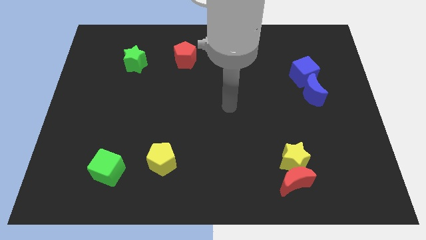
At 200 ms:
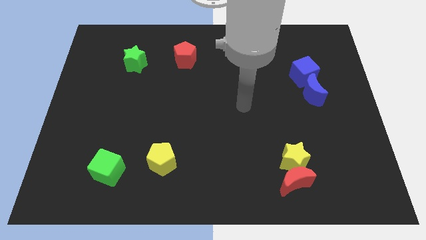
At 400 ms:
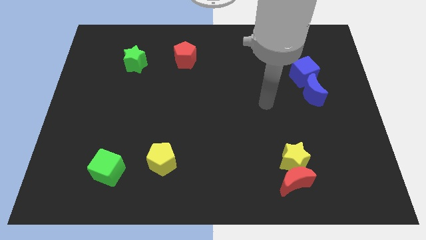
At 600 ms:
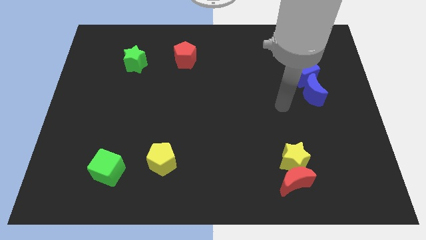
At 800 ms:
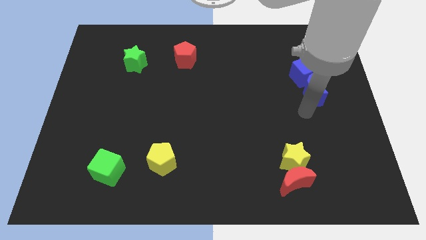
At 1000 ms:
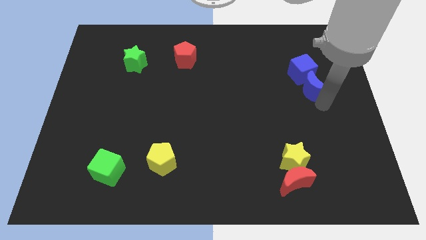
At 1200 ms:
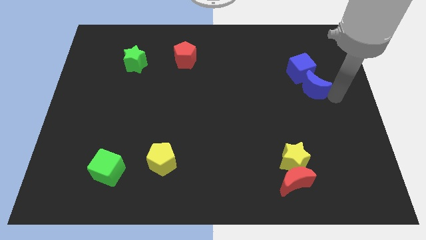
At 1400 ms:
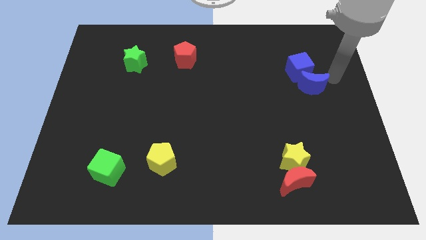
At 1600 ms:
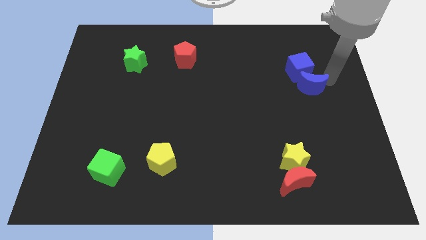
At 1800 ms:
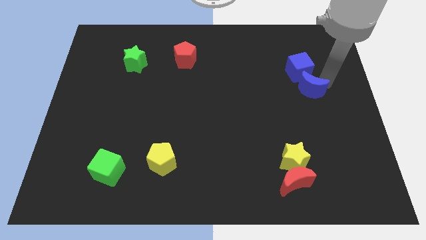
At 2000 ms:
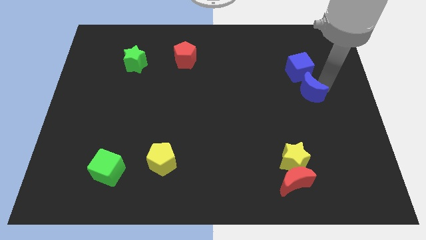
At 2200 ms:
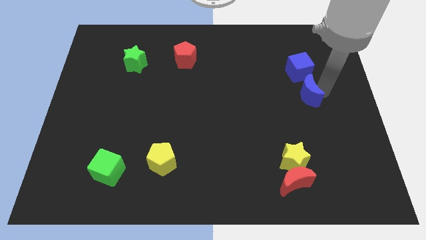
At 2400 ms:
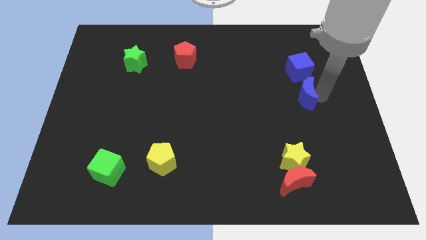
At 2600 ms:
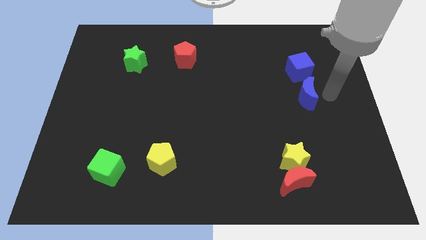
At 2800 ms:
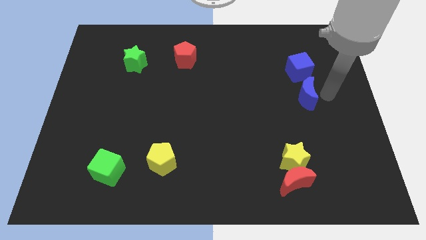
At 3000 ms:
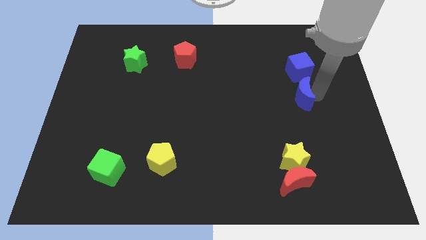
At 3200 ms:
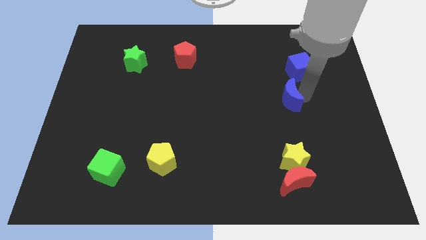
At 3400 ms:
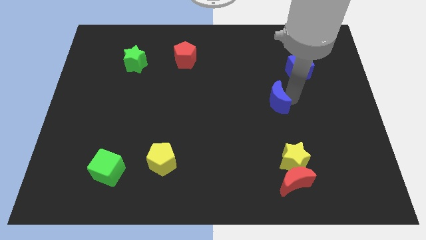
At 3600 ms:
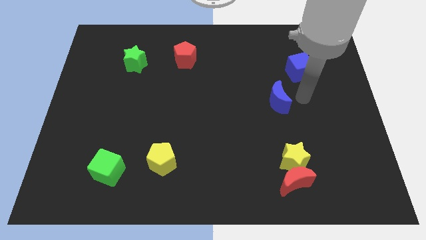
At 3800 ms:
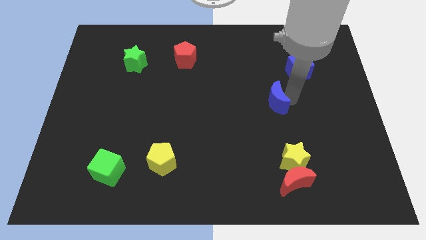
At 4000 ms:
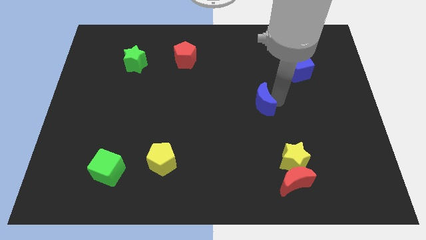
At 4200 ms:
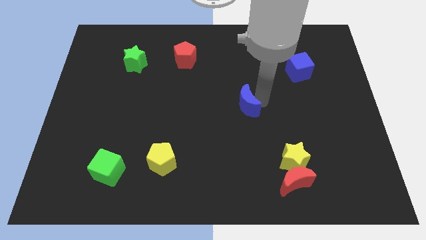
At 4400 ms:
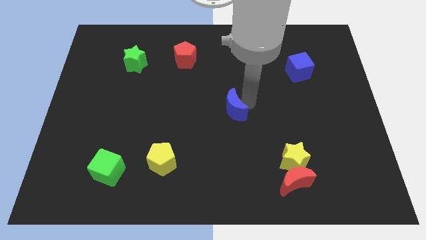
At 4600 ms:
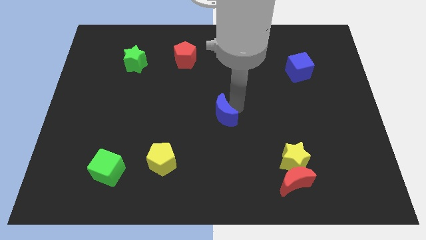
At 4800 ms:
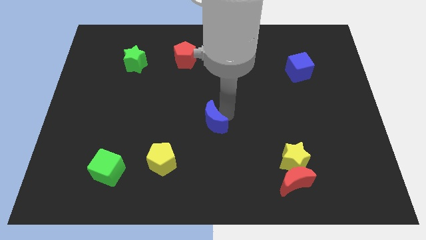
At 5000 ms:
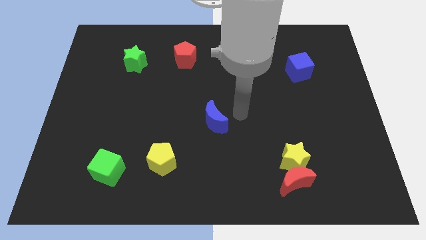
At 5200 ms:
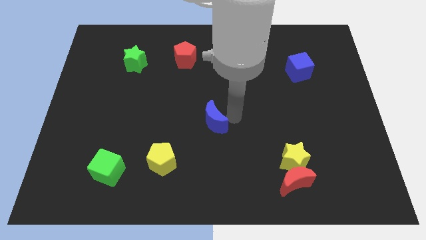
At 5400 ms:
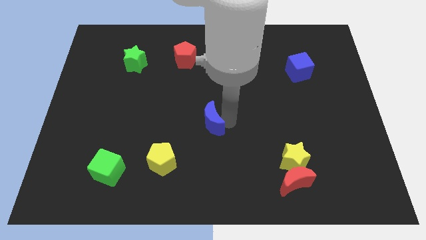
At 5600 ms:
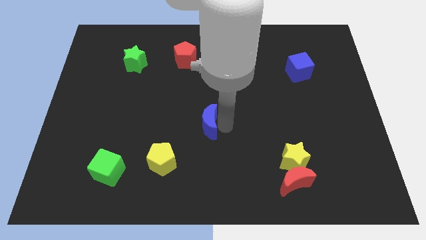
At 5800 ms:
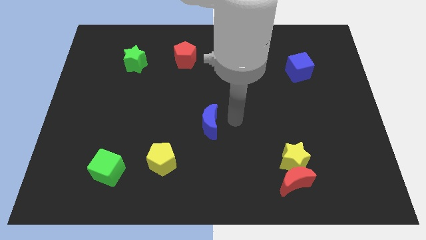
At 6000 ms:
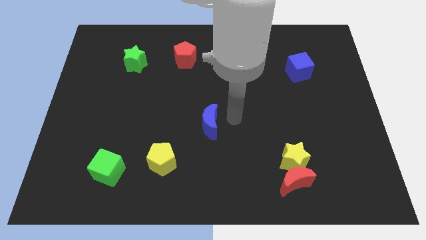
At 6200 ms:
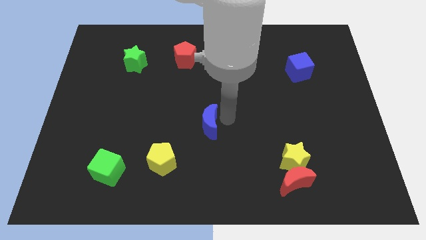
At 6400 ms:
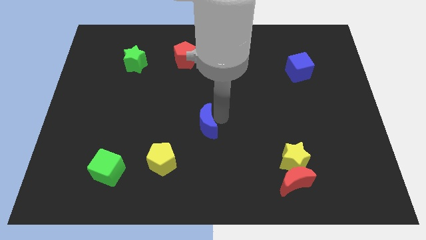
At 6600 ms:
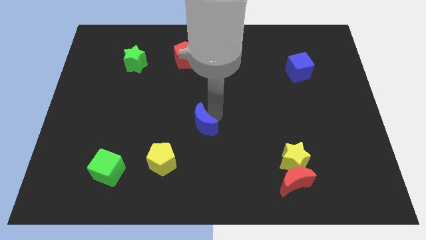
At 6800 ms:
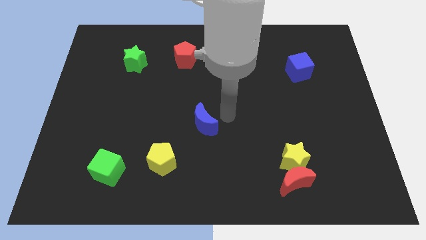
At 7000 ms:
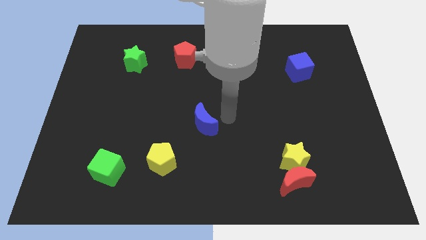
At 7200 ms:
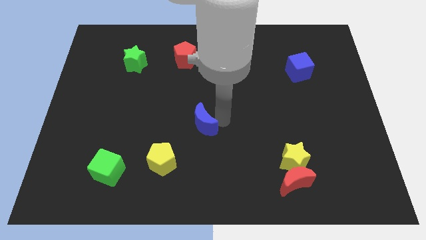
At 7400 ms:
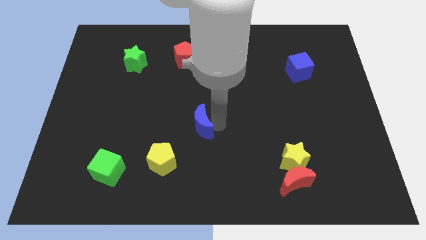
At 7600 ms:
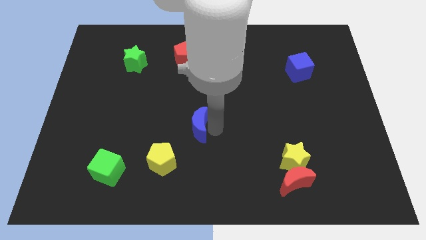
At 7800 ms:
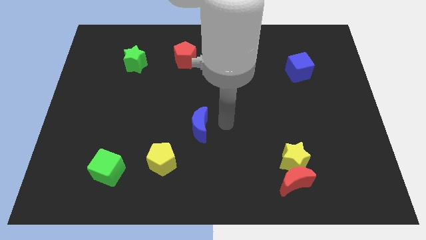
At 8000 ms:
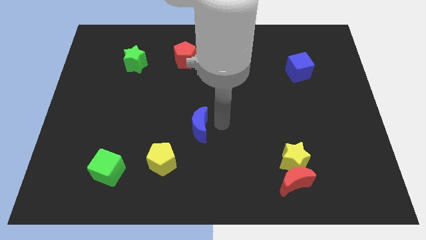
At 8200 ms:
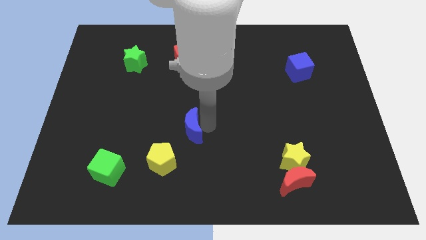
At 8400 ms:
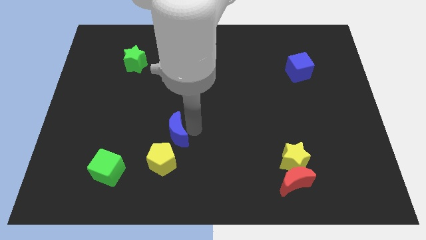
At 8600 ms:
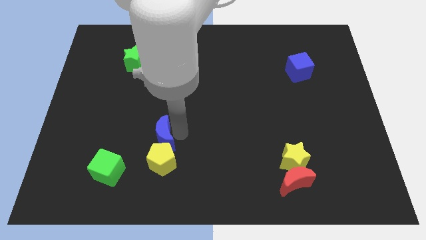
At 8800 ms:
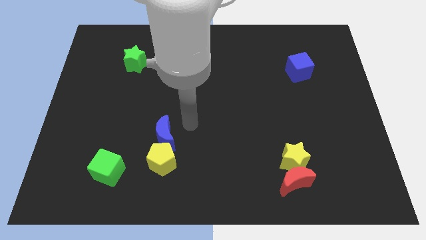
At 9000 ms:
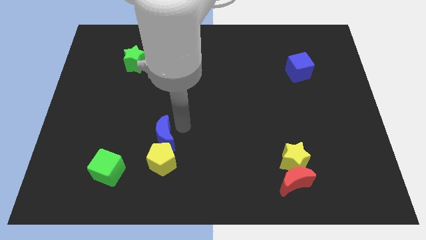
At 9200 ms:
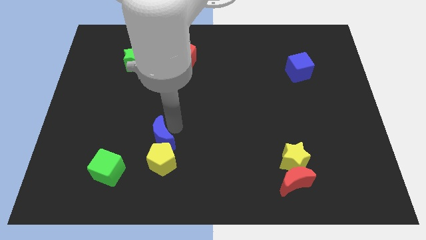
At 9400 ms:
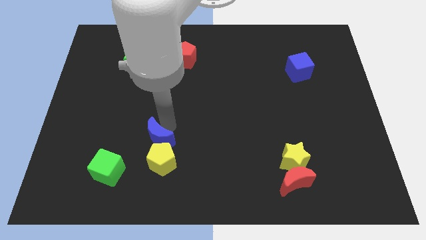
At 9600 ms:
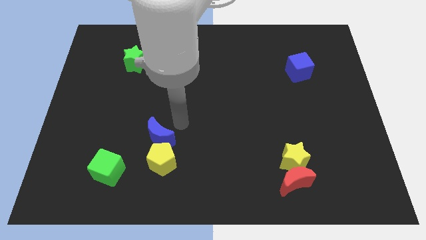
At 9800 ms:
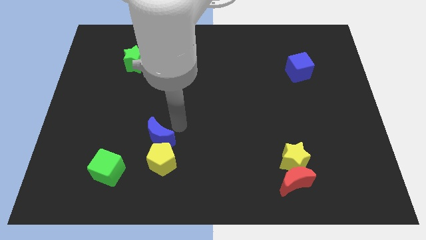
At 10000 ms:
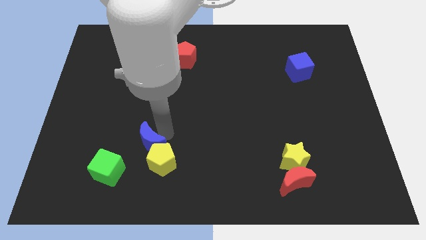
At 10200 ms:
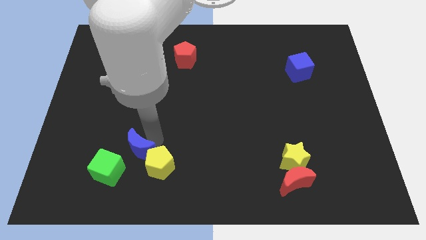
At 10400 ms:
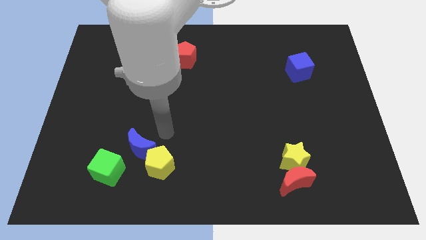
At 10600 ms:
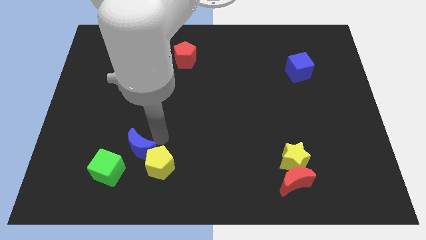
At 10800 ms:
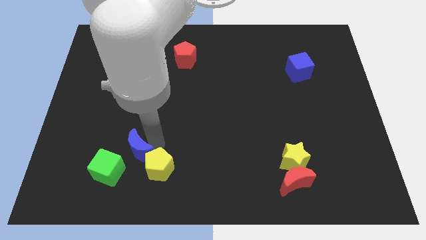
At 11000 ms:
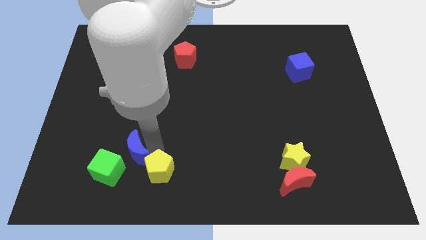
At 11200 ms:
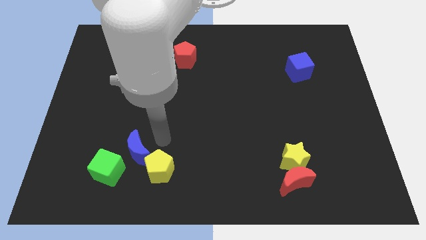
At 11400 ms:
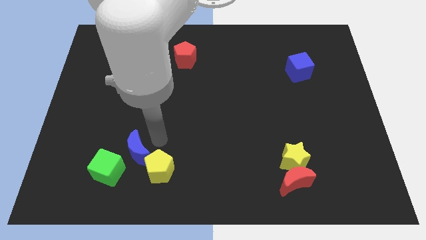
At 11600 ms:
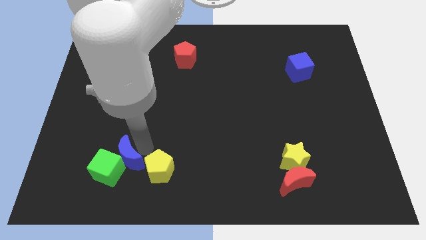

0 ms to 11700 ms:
push the blue moon next to the green cube
